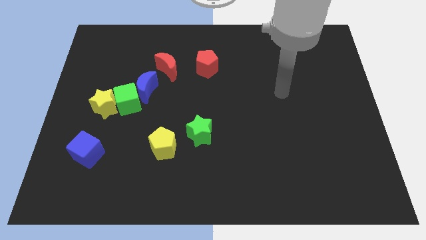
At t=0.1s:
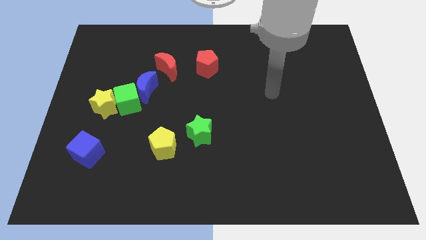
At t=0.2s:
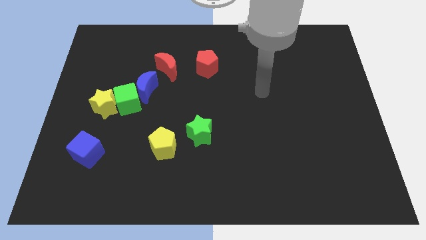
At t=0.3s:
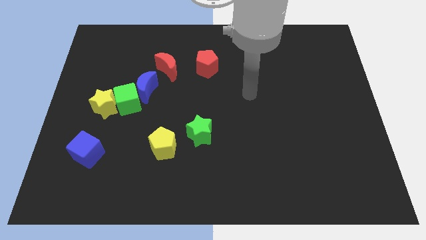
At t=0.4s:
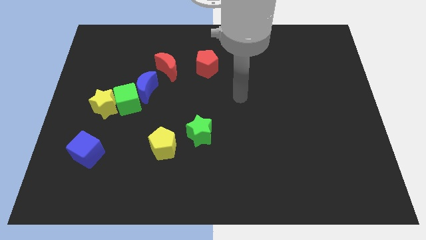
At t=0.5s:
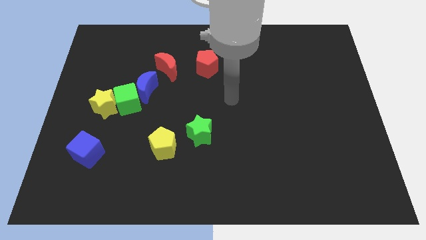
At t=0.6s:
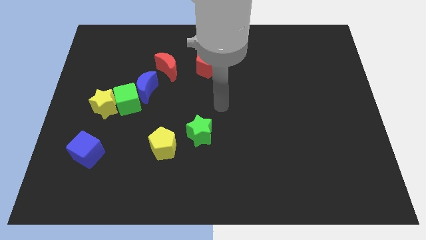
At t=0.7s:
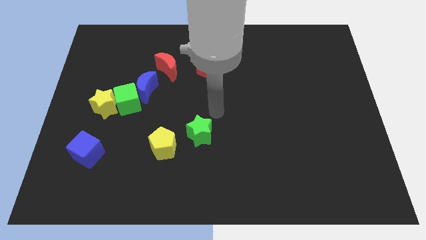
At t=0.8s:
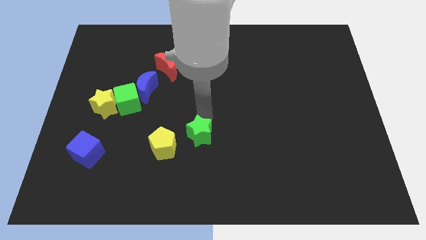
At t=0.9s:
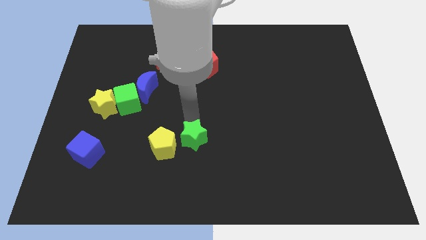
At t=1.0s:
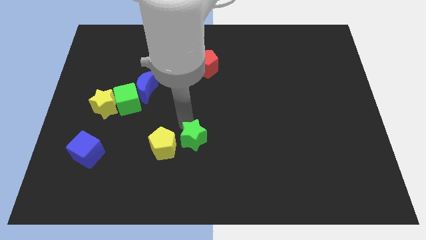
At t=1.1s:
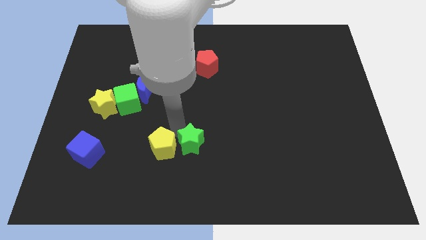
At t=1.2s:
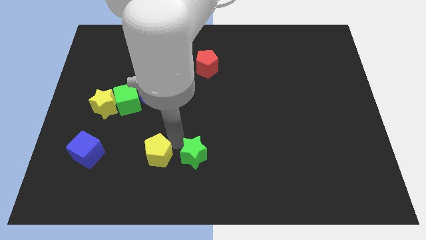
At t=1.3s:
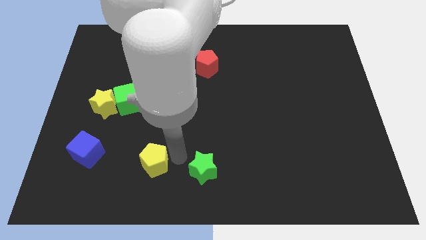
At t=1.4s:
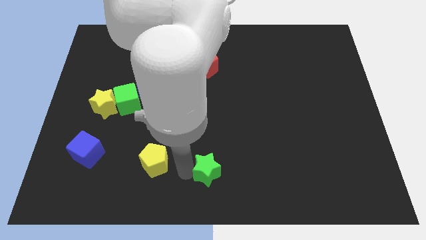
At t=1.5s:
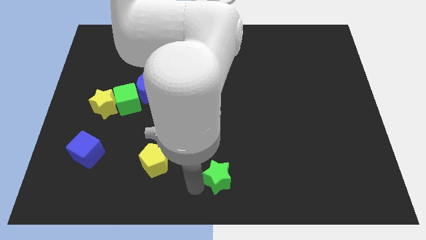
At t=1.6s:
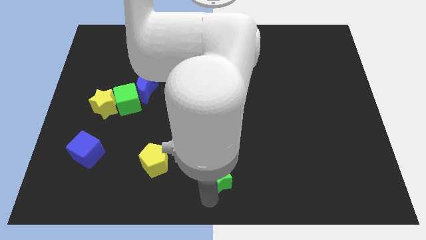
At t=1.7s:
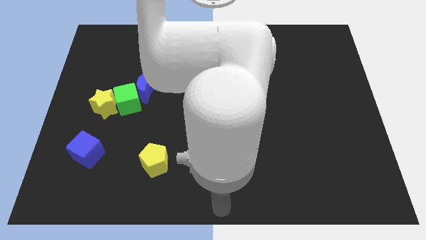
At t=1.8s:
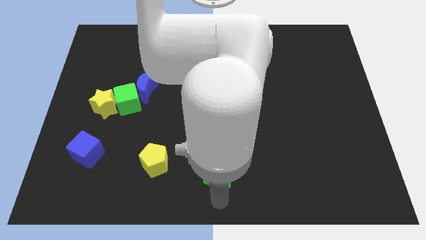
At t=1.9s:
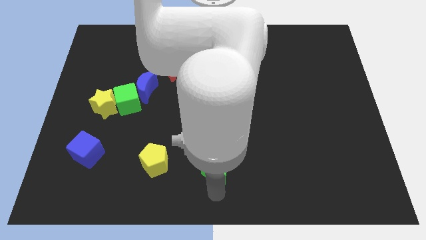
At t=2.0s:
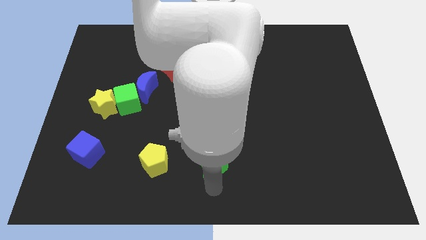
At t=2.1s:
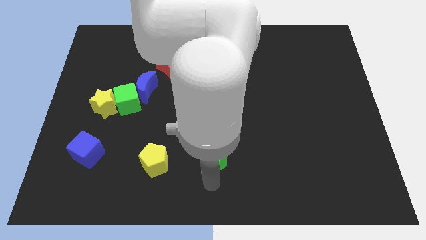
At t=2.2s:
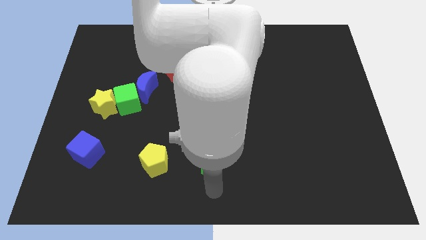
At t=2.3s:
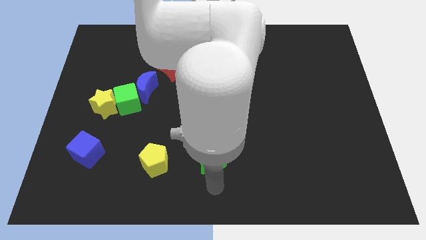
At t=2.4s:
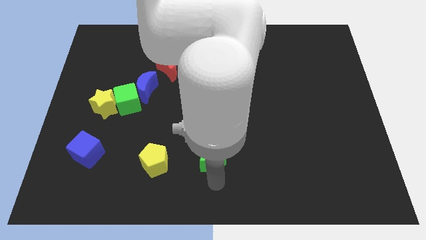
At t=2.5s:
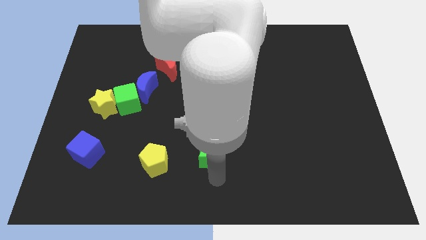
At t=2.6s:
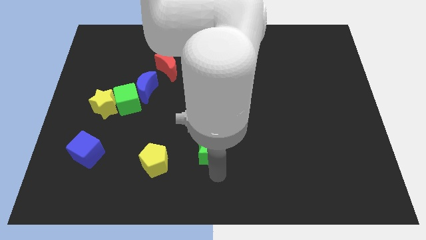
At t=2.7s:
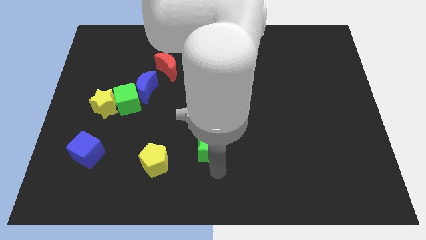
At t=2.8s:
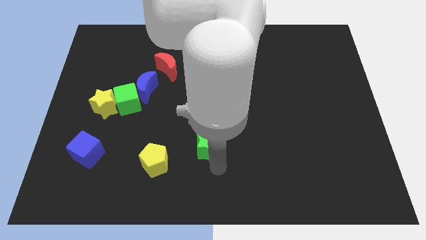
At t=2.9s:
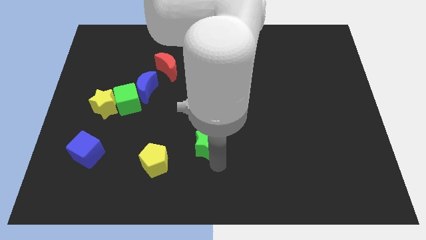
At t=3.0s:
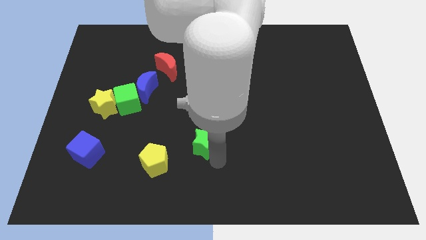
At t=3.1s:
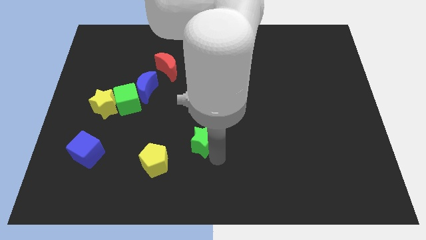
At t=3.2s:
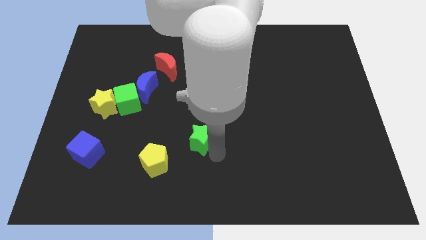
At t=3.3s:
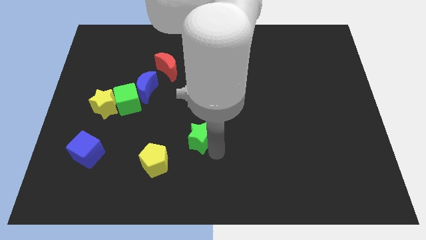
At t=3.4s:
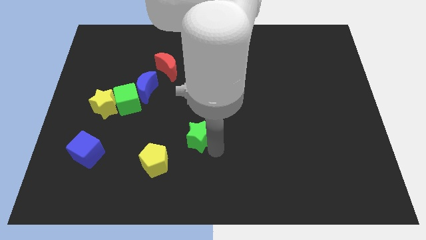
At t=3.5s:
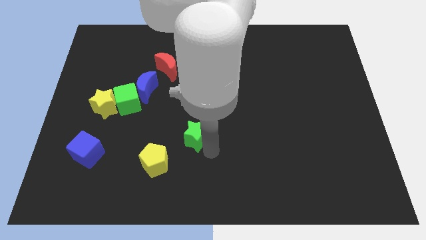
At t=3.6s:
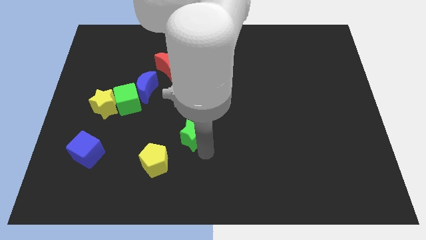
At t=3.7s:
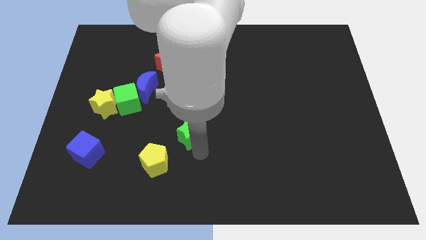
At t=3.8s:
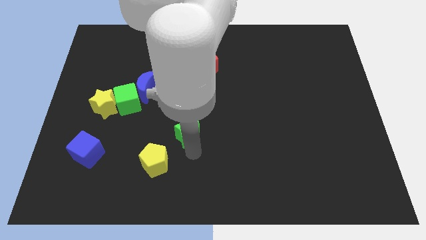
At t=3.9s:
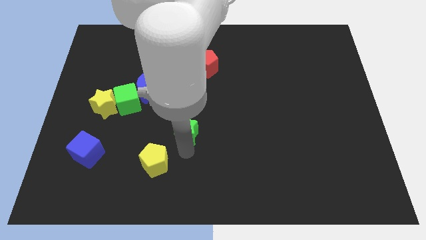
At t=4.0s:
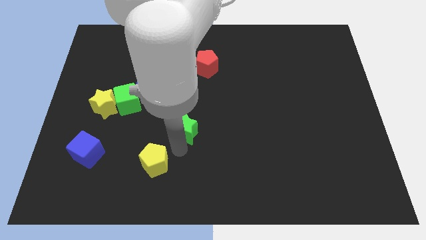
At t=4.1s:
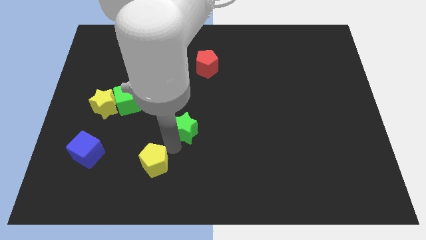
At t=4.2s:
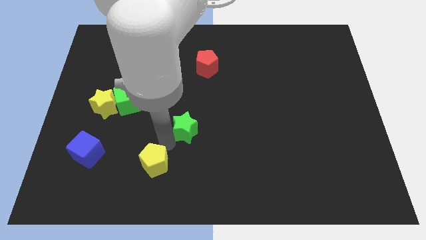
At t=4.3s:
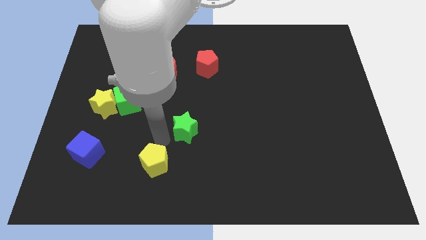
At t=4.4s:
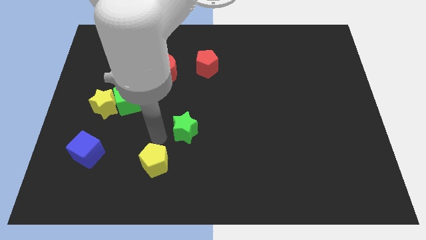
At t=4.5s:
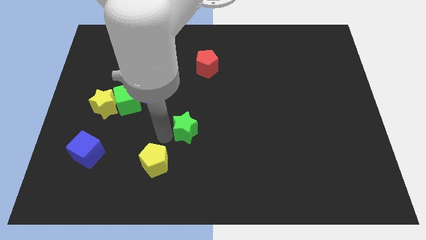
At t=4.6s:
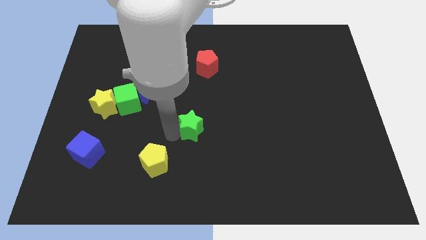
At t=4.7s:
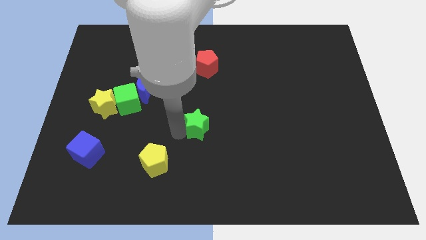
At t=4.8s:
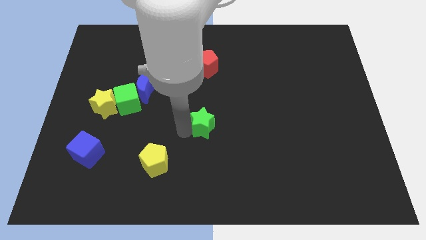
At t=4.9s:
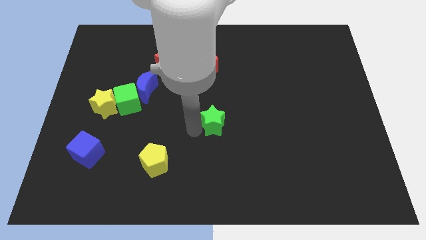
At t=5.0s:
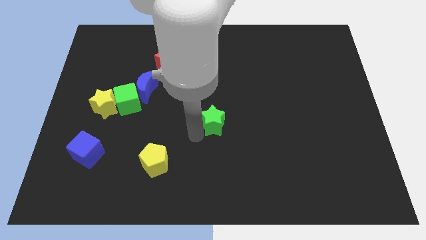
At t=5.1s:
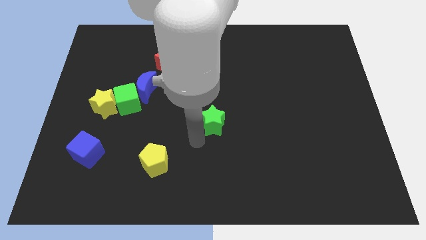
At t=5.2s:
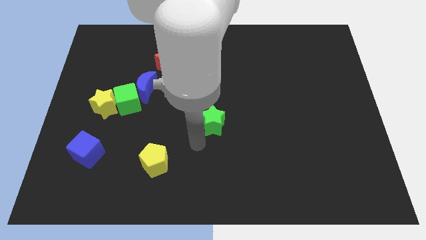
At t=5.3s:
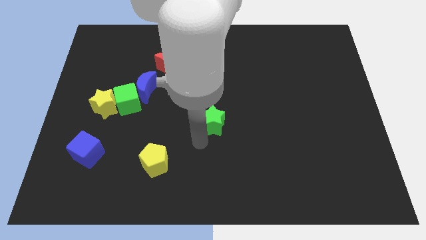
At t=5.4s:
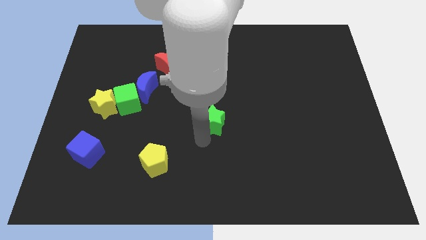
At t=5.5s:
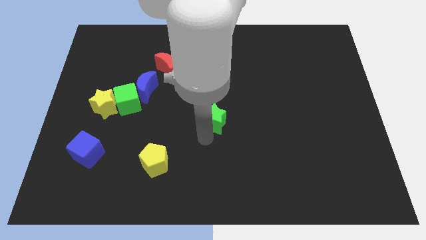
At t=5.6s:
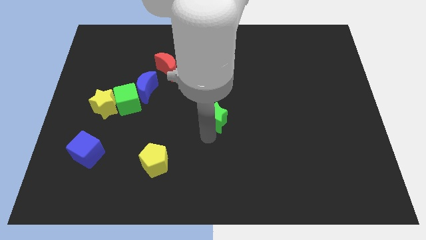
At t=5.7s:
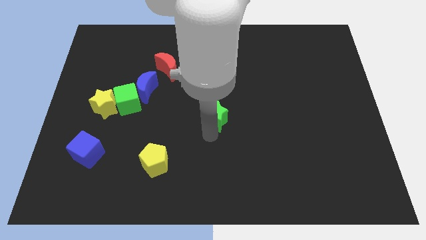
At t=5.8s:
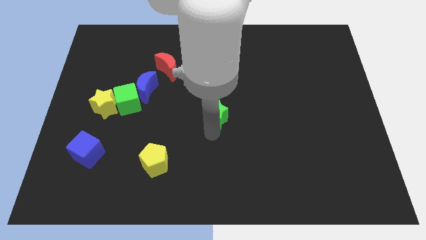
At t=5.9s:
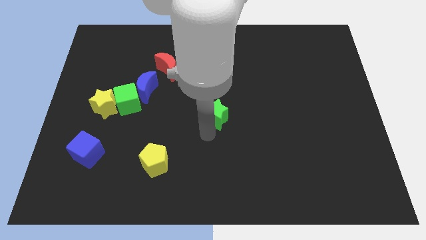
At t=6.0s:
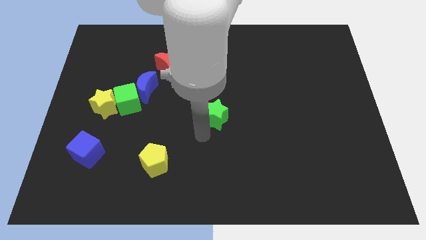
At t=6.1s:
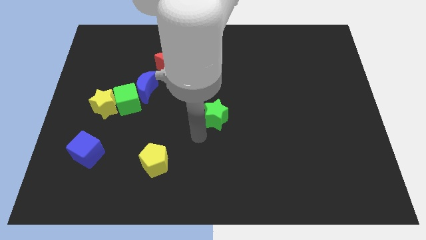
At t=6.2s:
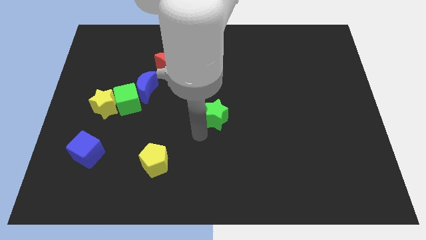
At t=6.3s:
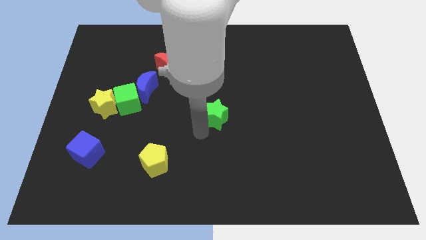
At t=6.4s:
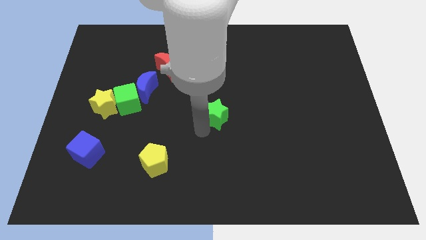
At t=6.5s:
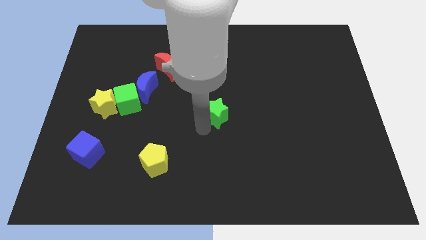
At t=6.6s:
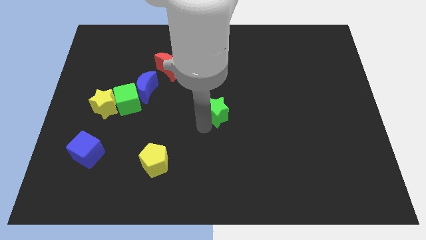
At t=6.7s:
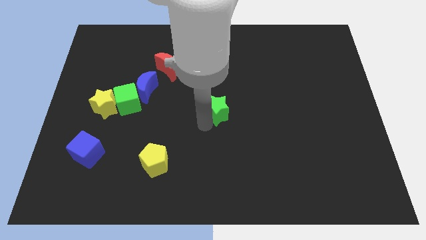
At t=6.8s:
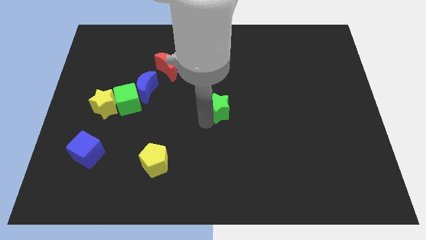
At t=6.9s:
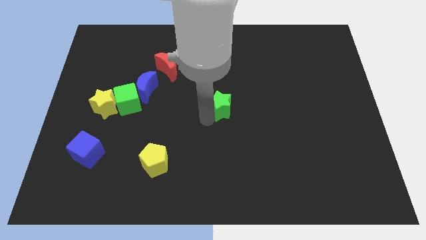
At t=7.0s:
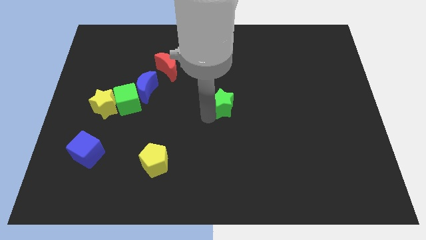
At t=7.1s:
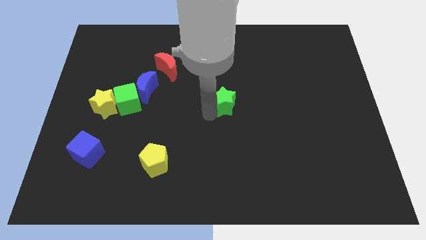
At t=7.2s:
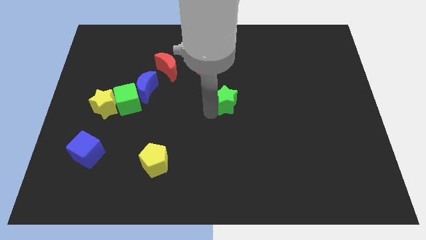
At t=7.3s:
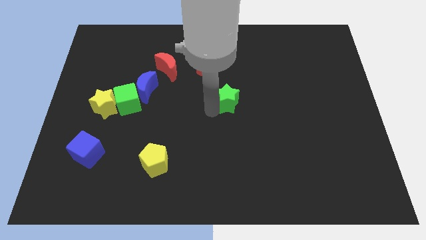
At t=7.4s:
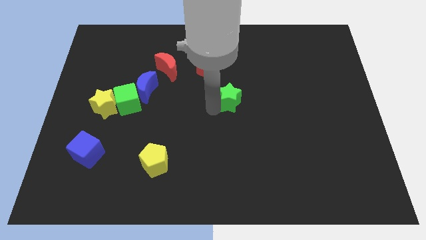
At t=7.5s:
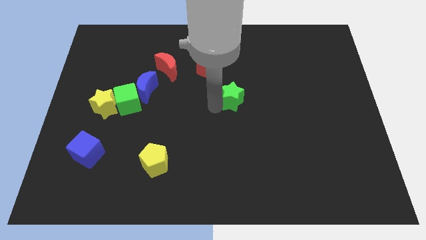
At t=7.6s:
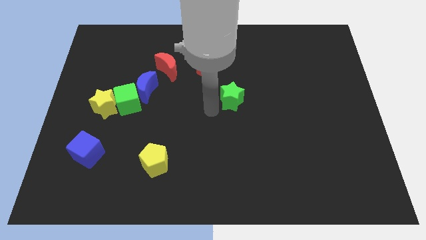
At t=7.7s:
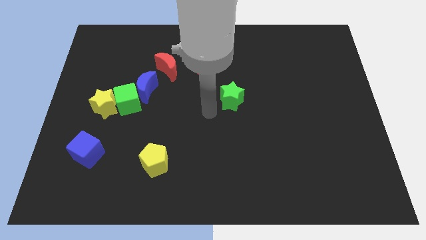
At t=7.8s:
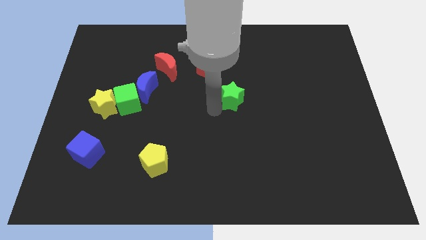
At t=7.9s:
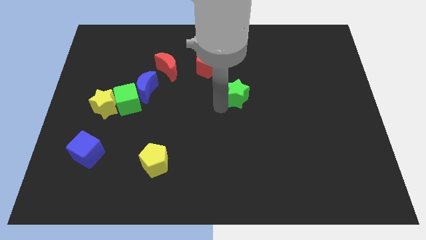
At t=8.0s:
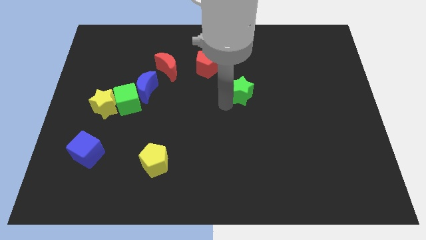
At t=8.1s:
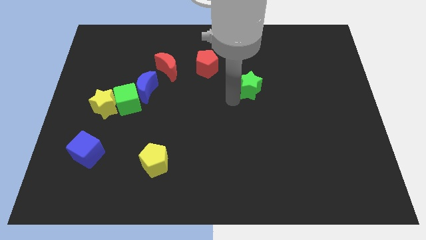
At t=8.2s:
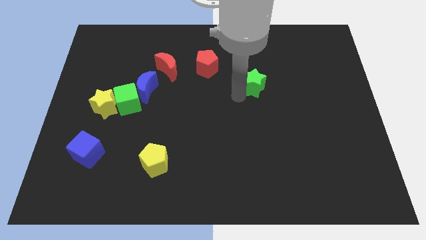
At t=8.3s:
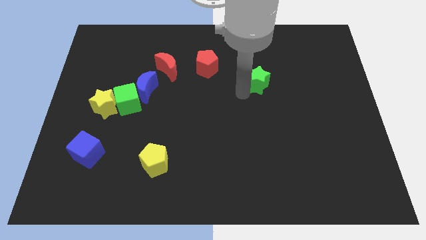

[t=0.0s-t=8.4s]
push the green star upwards and right diagonally
